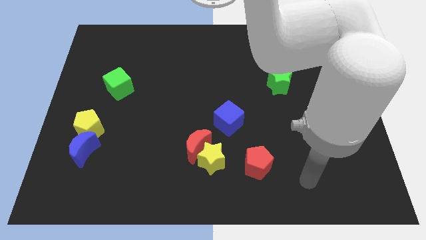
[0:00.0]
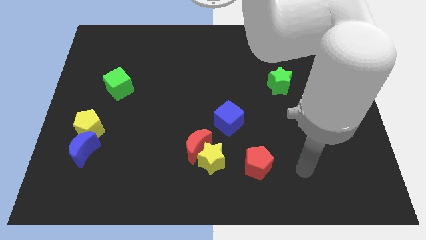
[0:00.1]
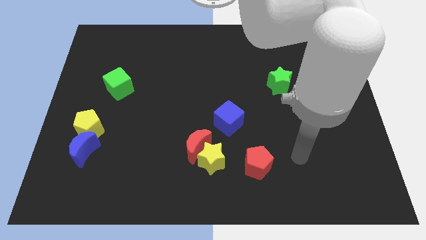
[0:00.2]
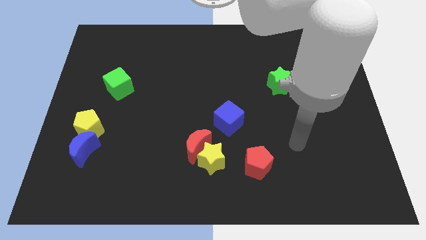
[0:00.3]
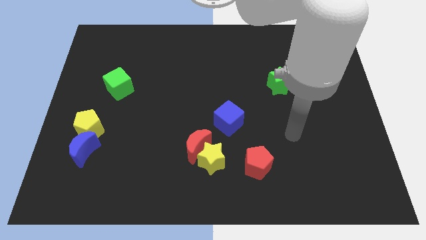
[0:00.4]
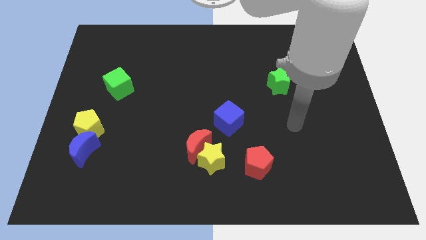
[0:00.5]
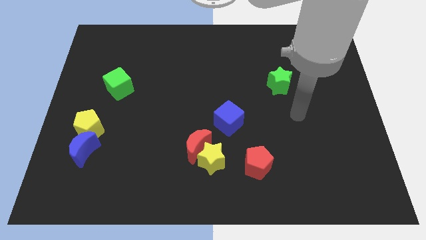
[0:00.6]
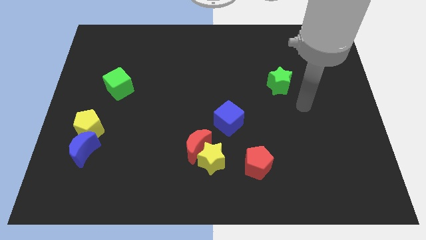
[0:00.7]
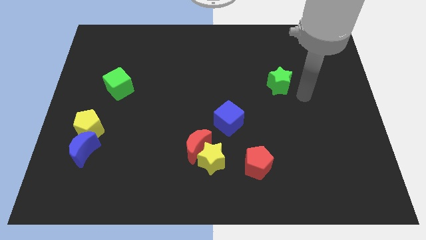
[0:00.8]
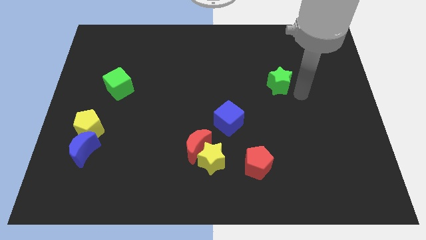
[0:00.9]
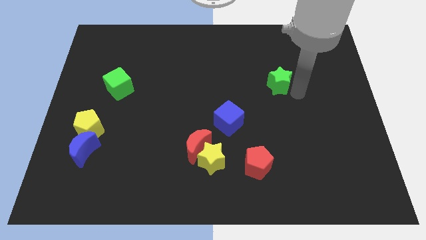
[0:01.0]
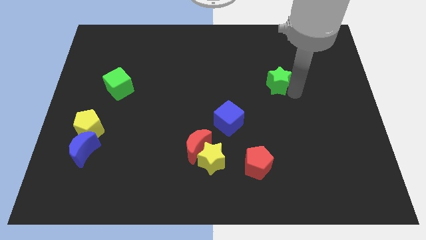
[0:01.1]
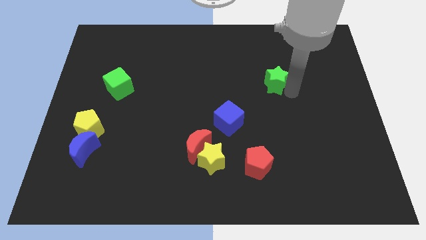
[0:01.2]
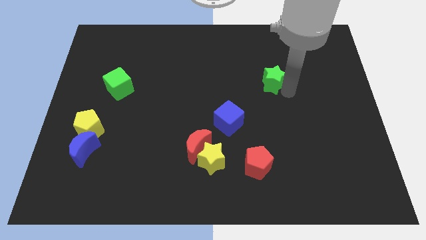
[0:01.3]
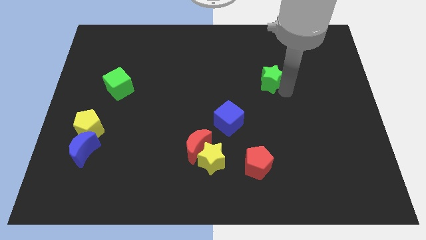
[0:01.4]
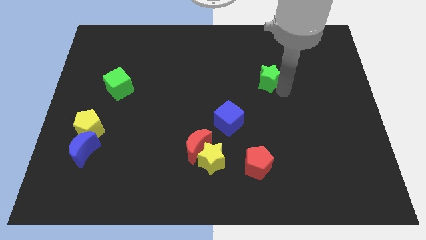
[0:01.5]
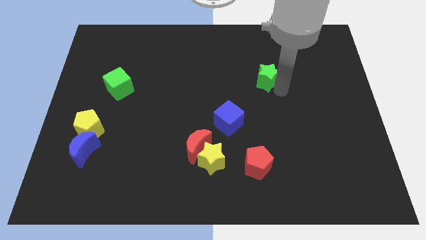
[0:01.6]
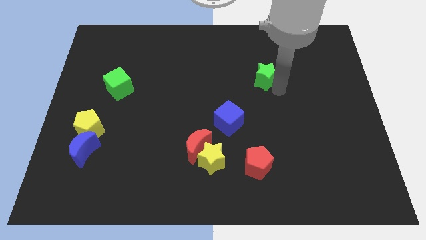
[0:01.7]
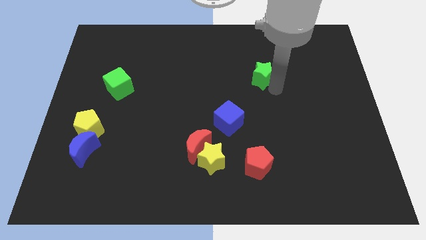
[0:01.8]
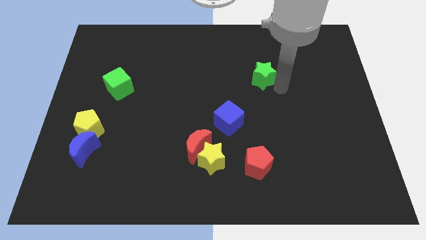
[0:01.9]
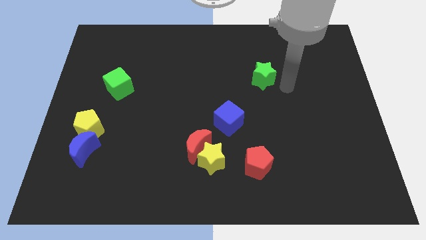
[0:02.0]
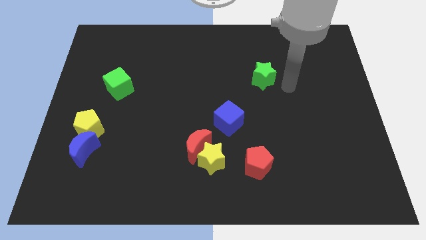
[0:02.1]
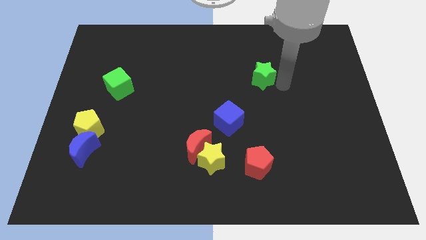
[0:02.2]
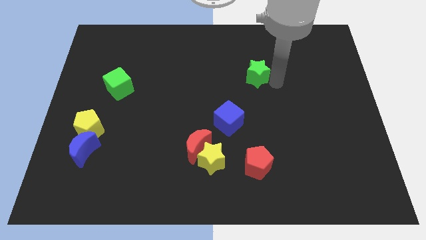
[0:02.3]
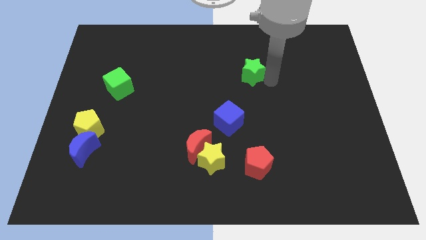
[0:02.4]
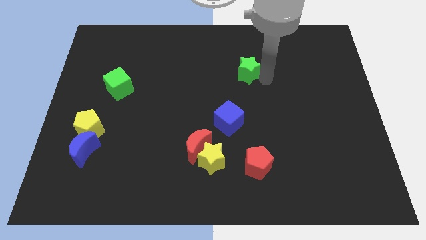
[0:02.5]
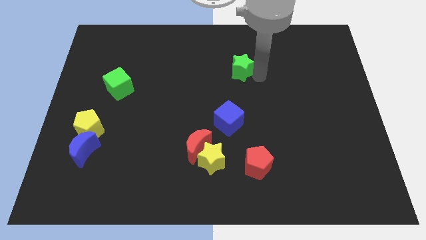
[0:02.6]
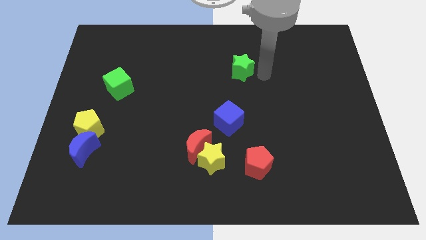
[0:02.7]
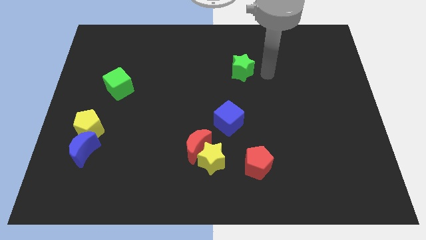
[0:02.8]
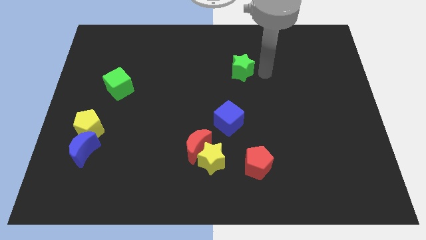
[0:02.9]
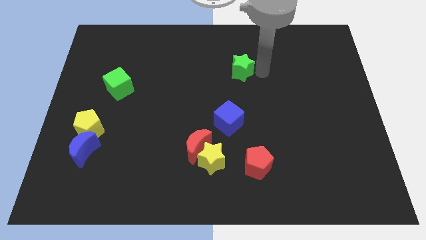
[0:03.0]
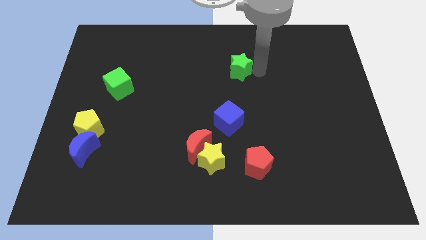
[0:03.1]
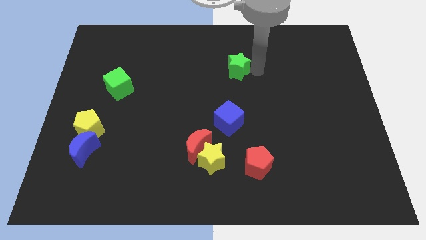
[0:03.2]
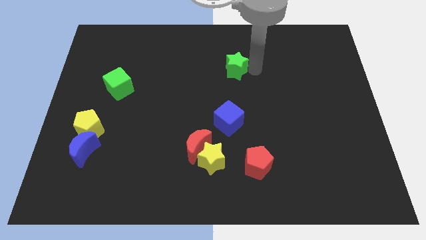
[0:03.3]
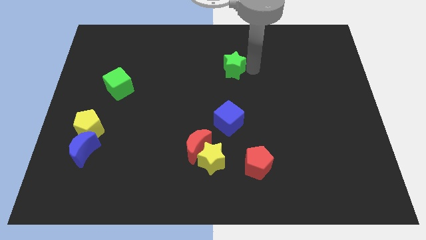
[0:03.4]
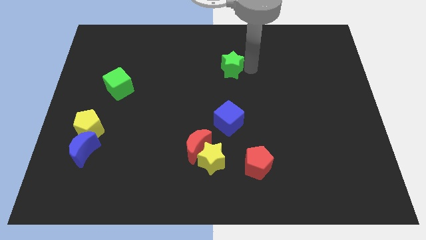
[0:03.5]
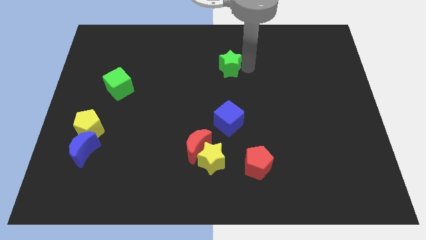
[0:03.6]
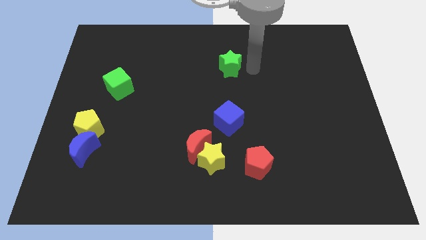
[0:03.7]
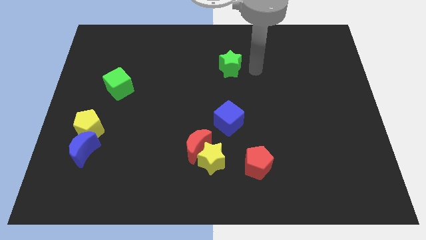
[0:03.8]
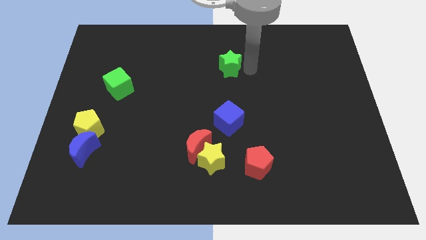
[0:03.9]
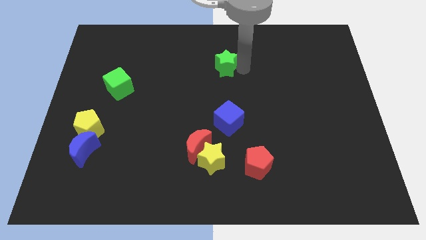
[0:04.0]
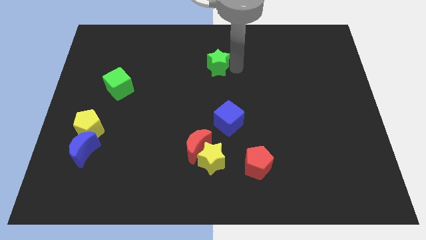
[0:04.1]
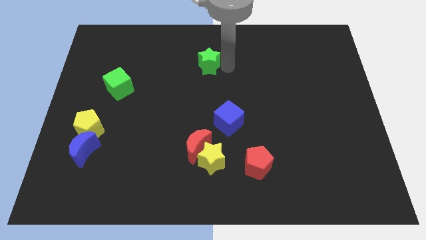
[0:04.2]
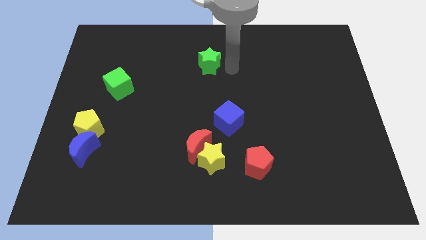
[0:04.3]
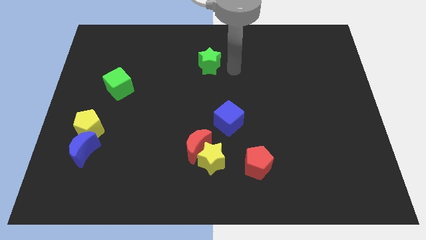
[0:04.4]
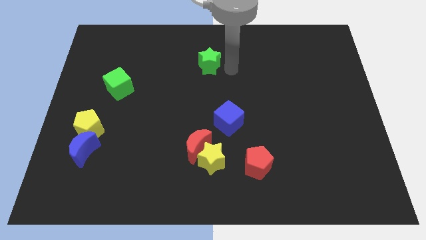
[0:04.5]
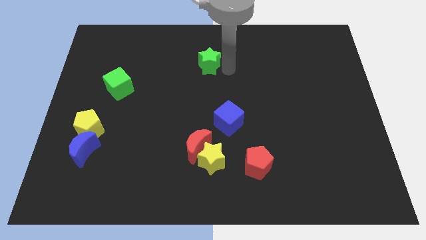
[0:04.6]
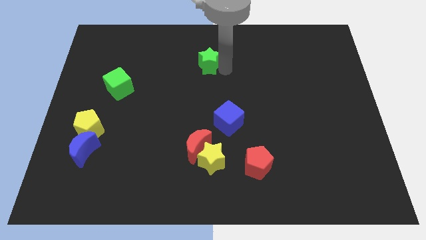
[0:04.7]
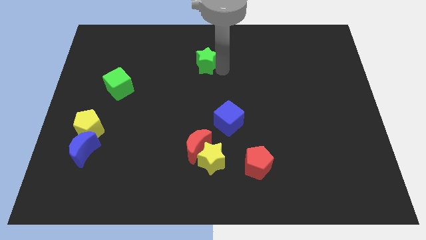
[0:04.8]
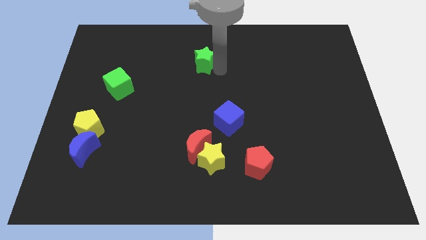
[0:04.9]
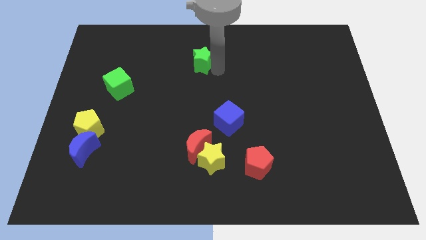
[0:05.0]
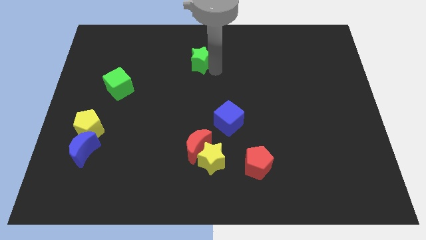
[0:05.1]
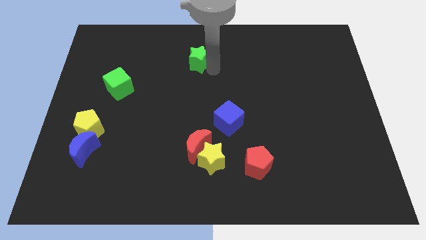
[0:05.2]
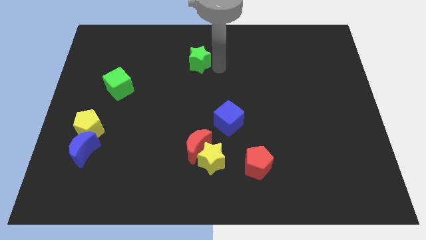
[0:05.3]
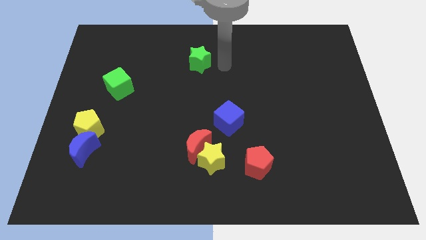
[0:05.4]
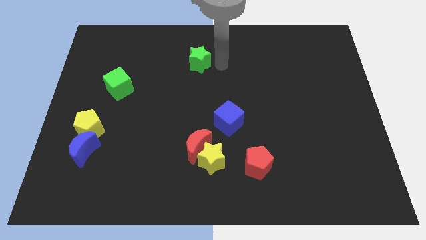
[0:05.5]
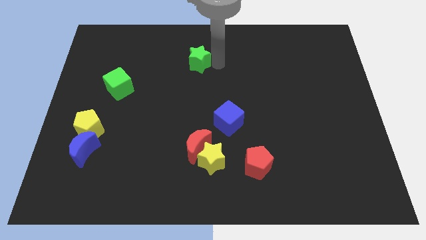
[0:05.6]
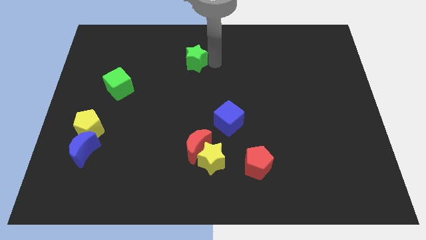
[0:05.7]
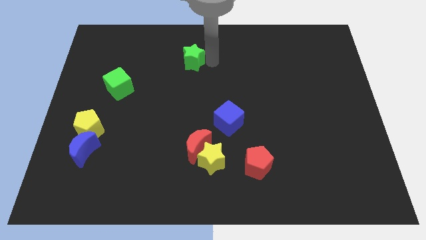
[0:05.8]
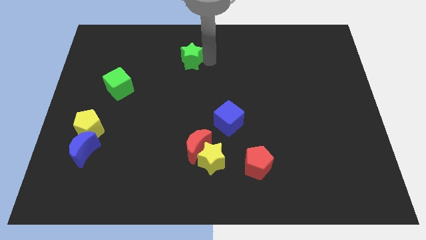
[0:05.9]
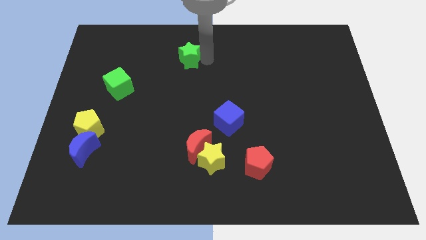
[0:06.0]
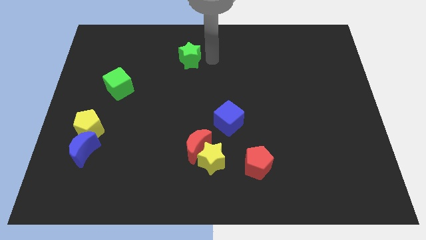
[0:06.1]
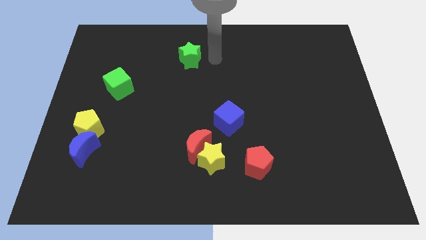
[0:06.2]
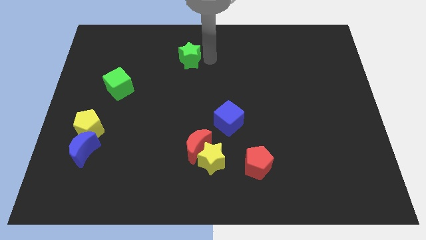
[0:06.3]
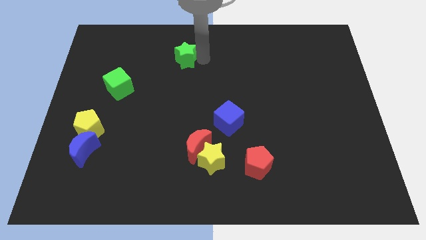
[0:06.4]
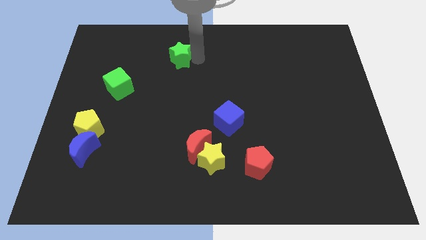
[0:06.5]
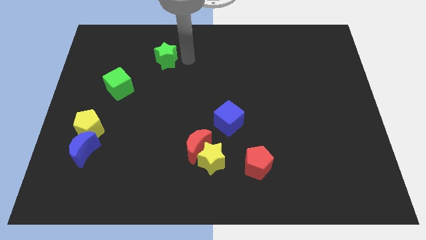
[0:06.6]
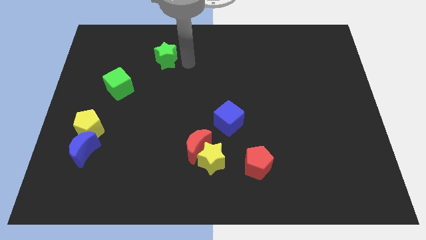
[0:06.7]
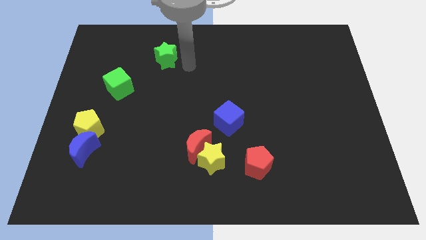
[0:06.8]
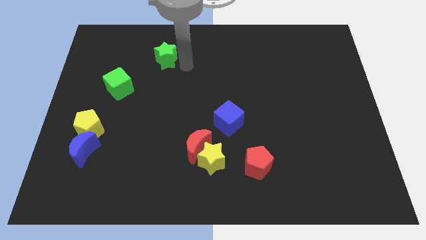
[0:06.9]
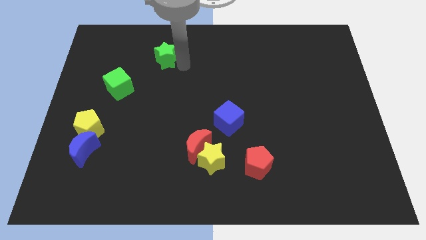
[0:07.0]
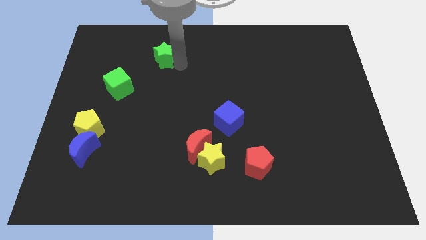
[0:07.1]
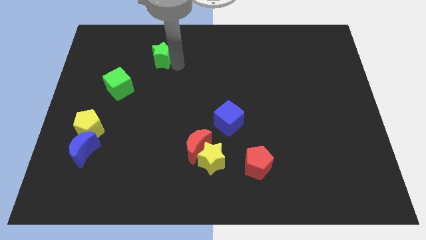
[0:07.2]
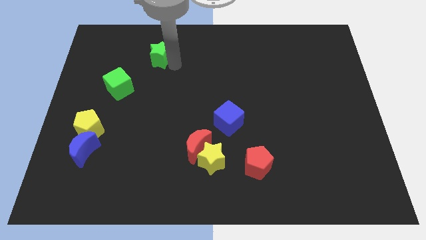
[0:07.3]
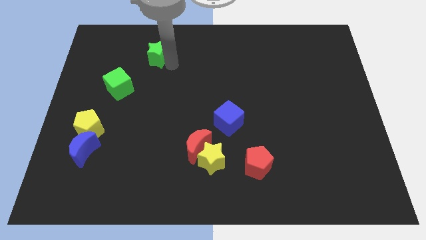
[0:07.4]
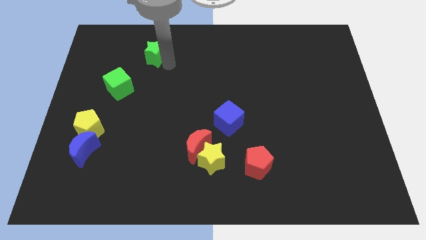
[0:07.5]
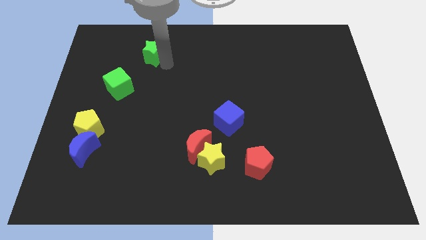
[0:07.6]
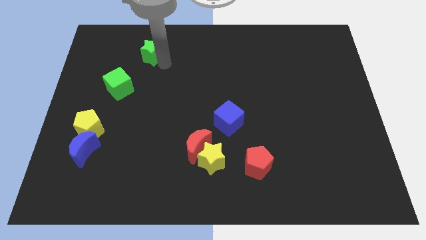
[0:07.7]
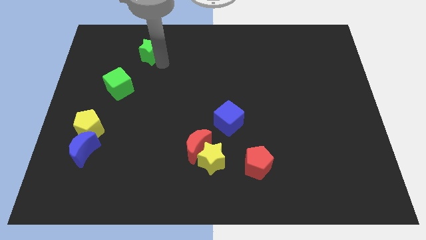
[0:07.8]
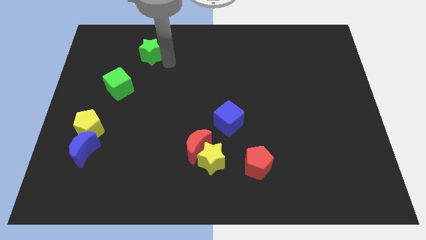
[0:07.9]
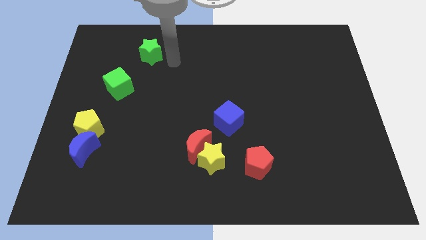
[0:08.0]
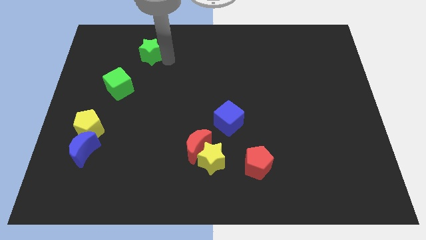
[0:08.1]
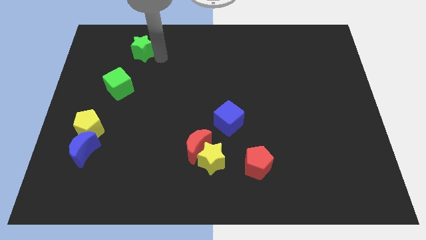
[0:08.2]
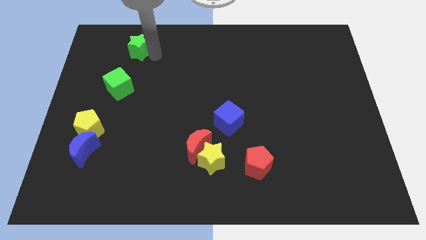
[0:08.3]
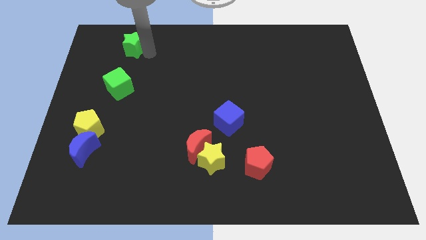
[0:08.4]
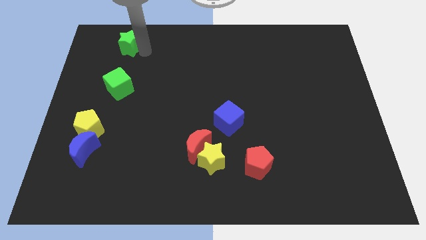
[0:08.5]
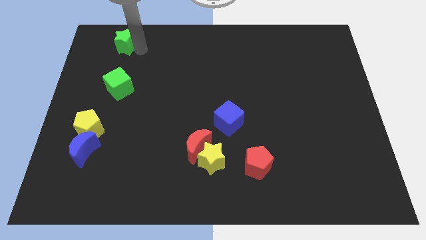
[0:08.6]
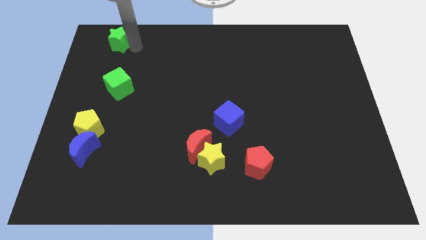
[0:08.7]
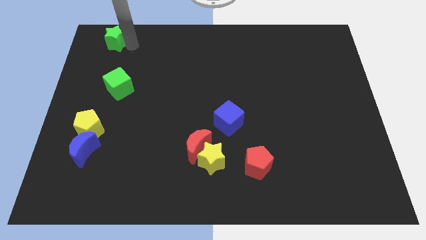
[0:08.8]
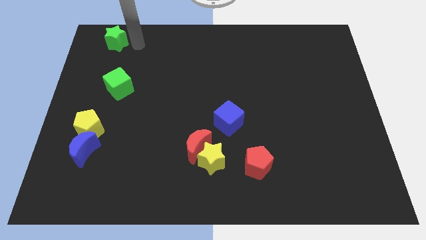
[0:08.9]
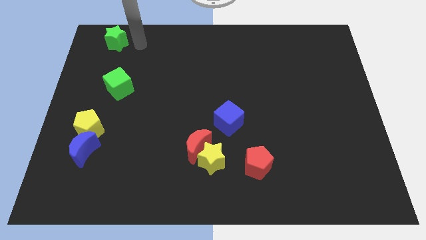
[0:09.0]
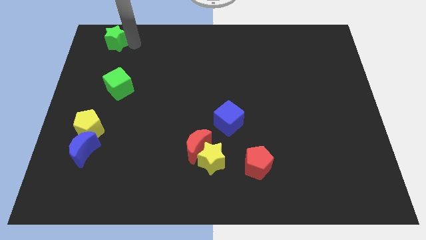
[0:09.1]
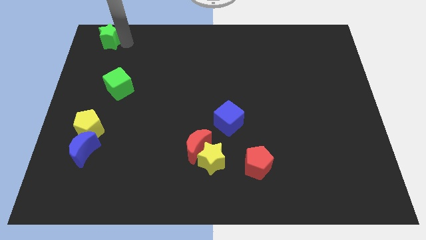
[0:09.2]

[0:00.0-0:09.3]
move the green star to the upper left corner
